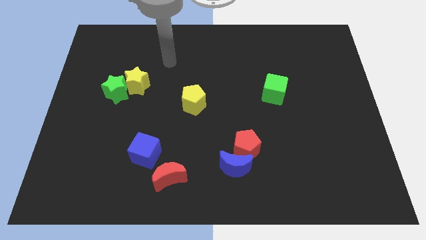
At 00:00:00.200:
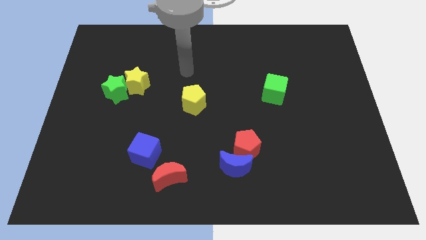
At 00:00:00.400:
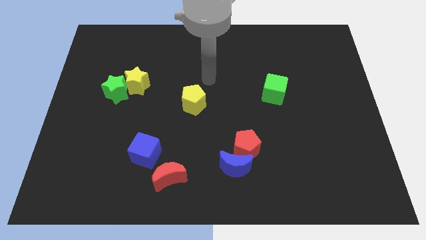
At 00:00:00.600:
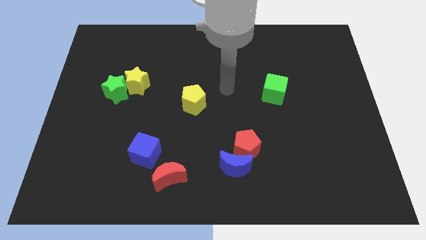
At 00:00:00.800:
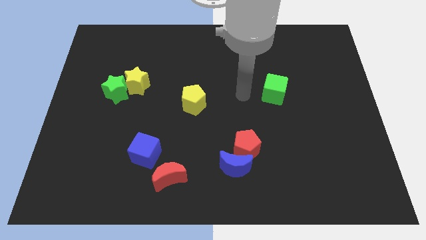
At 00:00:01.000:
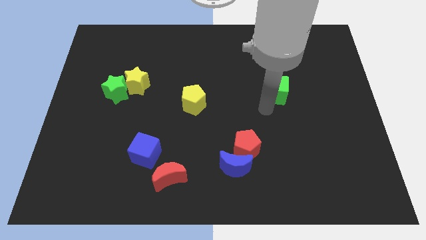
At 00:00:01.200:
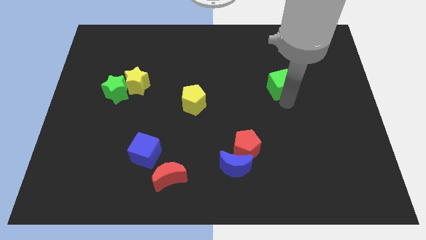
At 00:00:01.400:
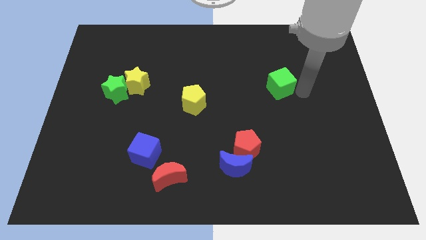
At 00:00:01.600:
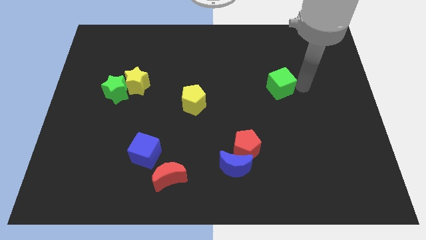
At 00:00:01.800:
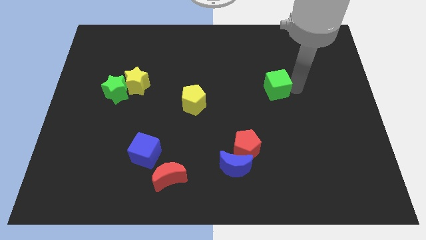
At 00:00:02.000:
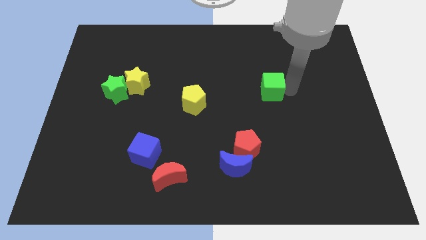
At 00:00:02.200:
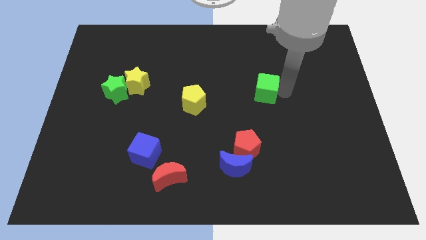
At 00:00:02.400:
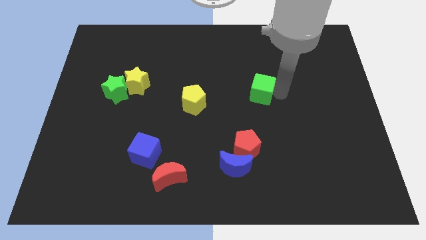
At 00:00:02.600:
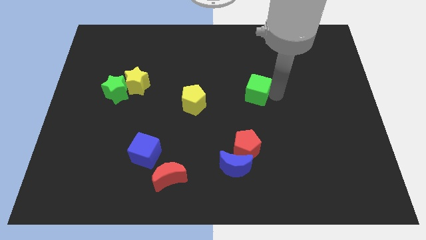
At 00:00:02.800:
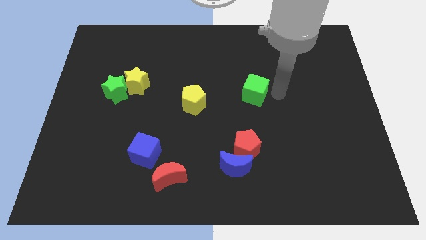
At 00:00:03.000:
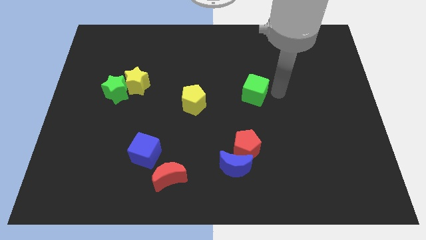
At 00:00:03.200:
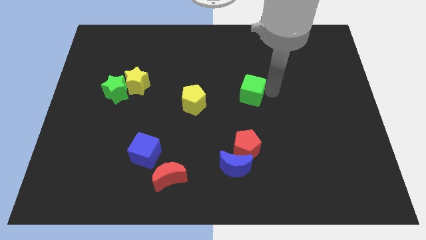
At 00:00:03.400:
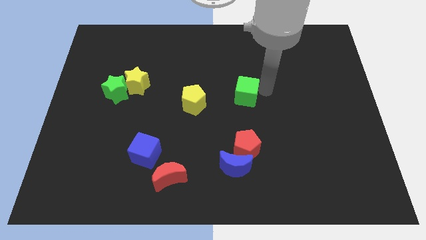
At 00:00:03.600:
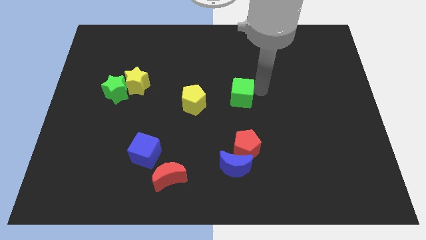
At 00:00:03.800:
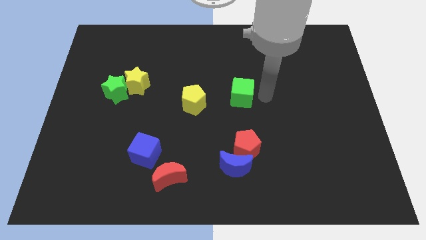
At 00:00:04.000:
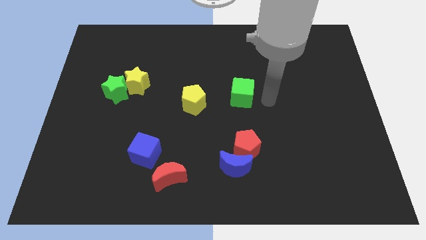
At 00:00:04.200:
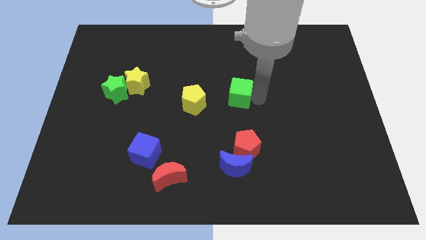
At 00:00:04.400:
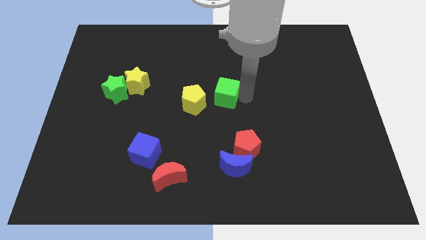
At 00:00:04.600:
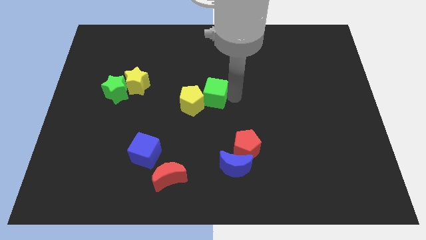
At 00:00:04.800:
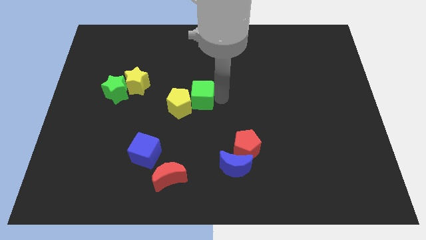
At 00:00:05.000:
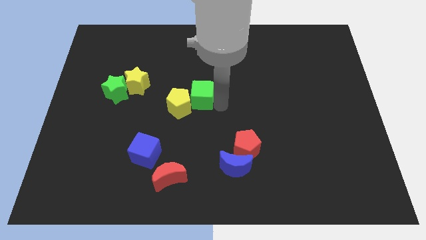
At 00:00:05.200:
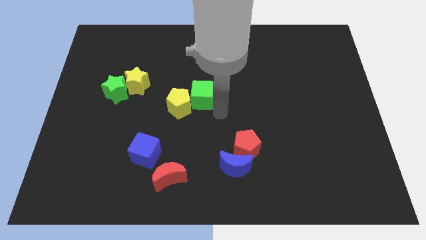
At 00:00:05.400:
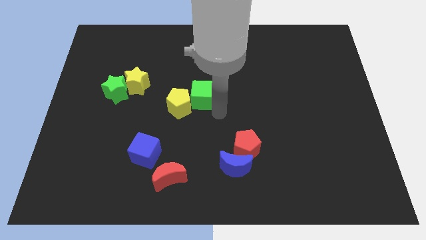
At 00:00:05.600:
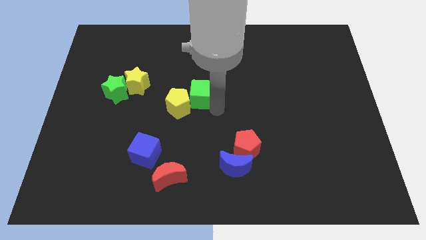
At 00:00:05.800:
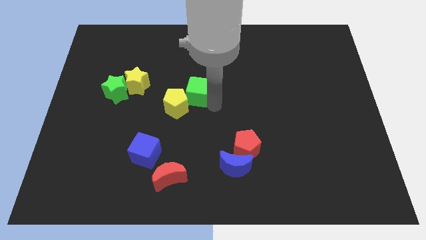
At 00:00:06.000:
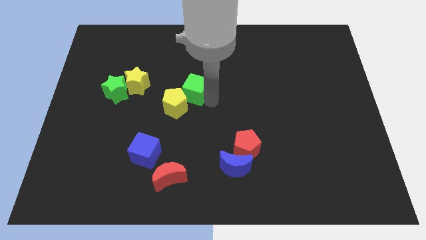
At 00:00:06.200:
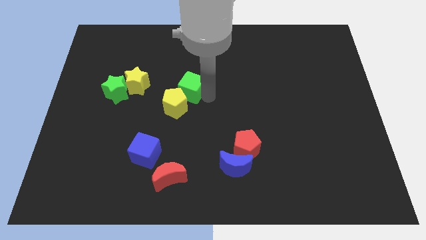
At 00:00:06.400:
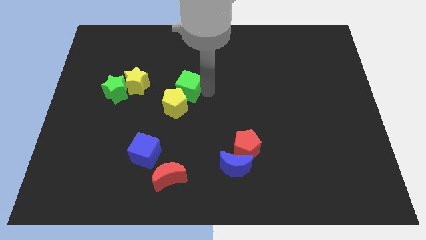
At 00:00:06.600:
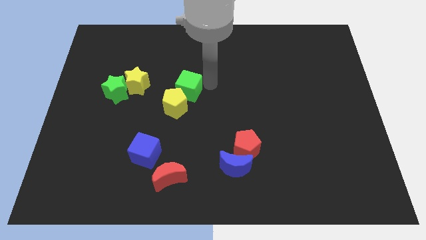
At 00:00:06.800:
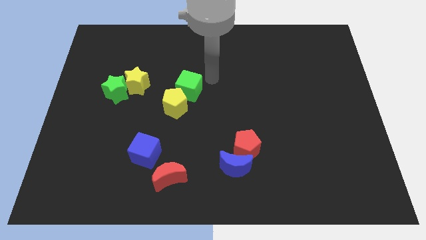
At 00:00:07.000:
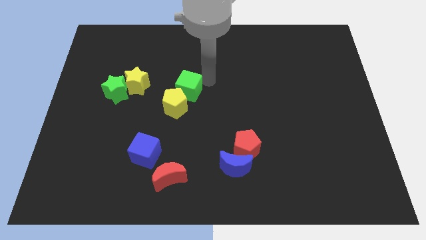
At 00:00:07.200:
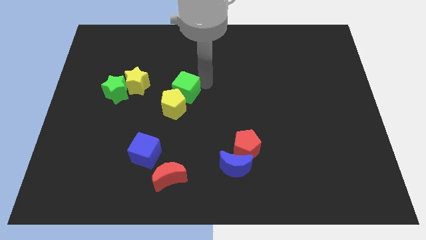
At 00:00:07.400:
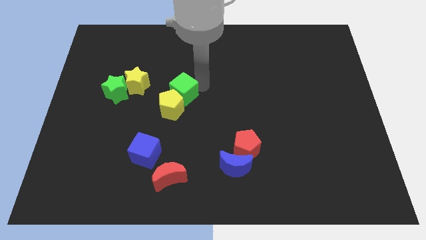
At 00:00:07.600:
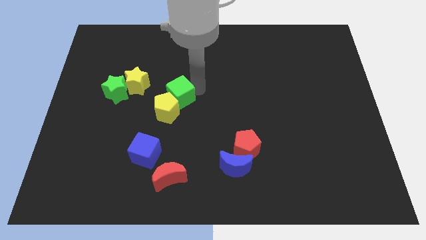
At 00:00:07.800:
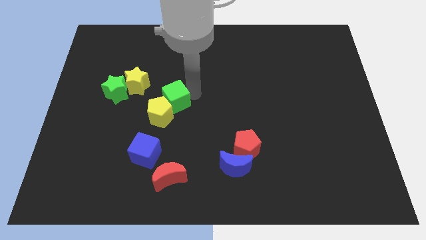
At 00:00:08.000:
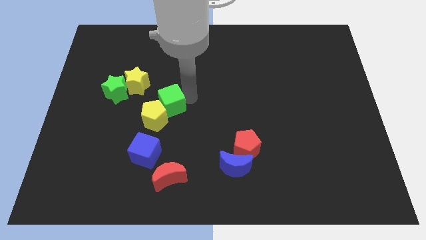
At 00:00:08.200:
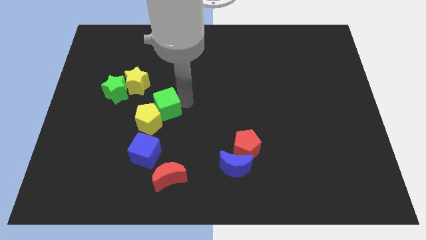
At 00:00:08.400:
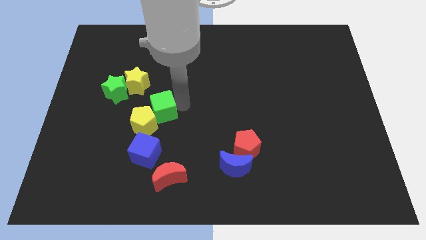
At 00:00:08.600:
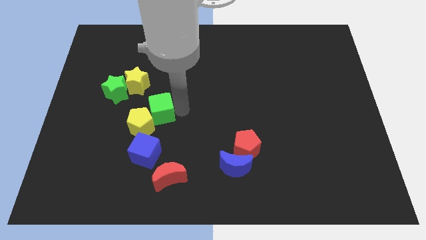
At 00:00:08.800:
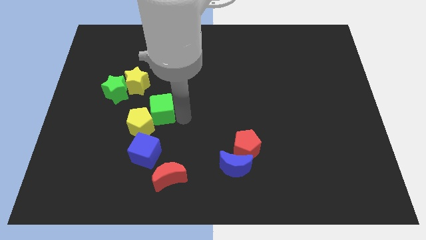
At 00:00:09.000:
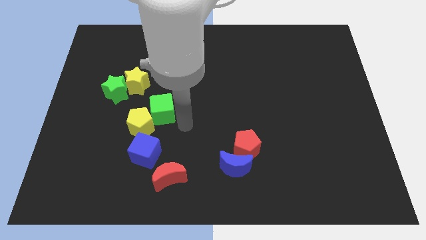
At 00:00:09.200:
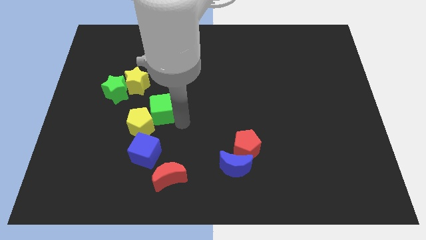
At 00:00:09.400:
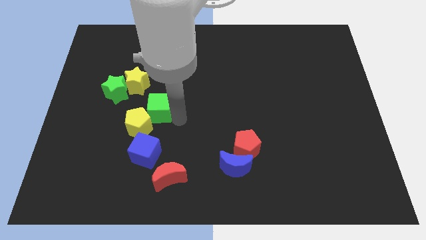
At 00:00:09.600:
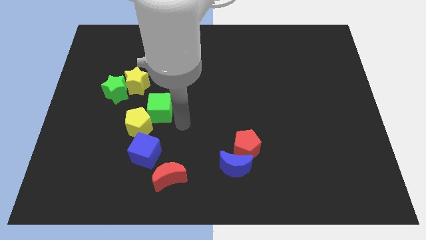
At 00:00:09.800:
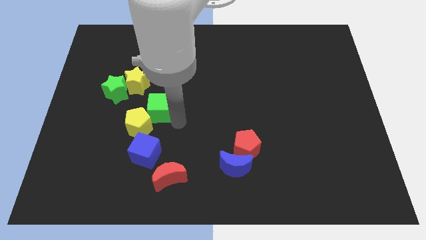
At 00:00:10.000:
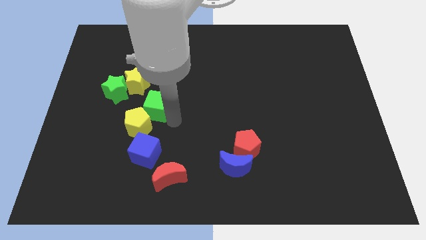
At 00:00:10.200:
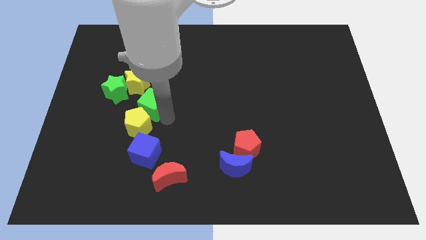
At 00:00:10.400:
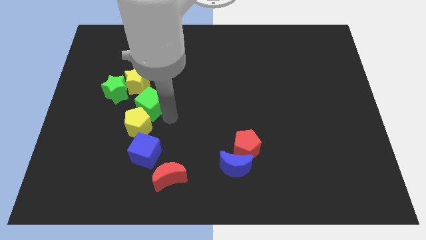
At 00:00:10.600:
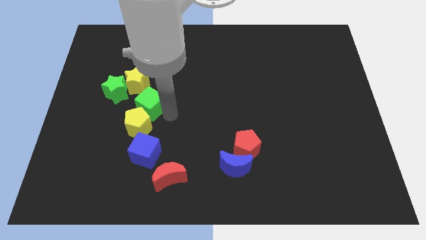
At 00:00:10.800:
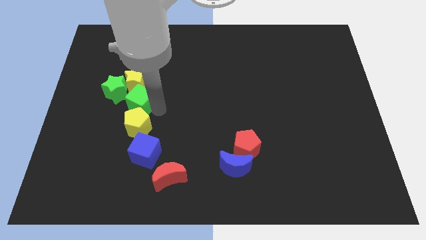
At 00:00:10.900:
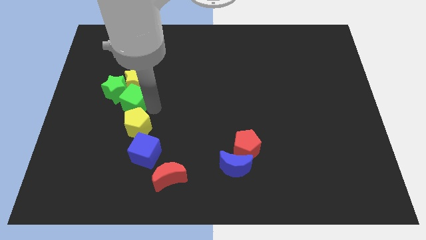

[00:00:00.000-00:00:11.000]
push the green cube to the green star

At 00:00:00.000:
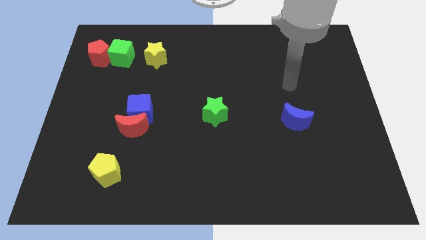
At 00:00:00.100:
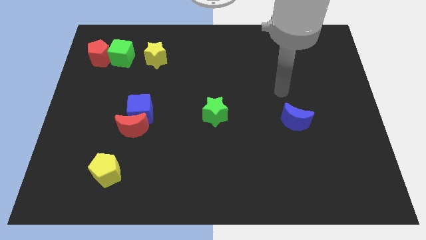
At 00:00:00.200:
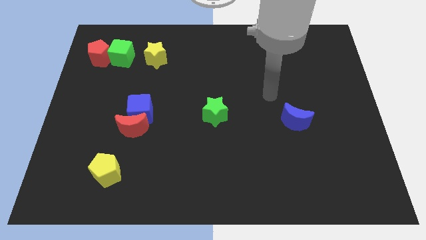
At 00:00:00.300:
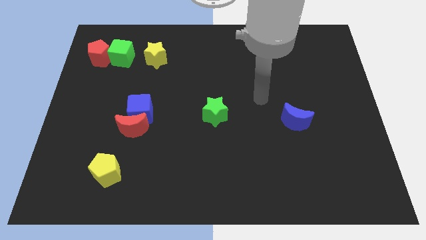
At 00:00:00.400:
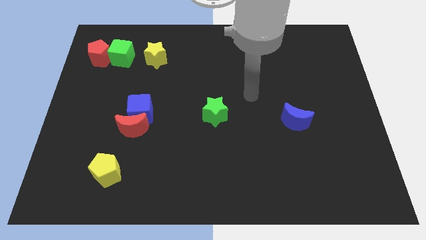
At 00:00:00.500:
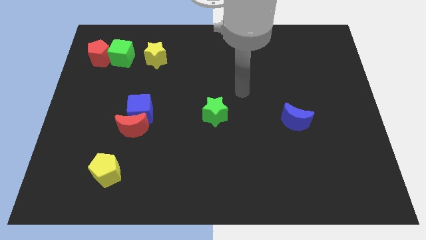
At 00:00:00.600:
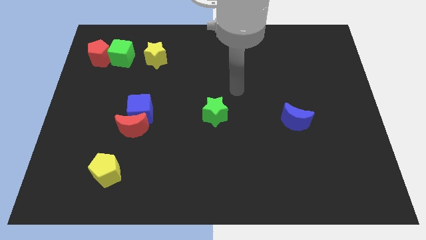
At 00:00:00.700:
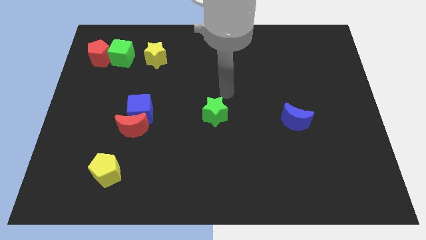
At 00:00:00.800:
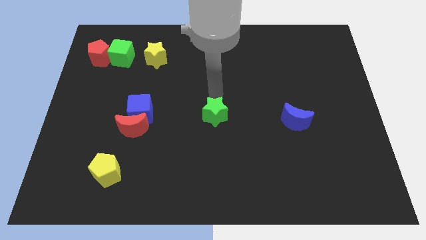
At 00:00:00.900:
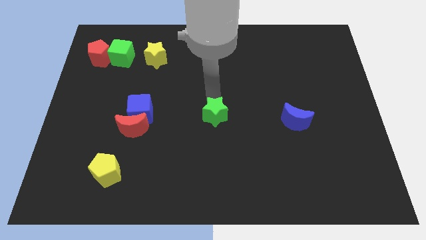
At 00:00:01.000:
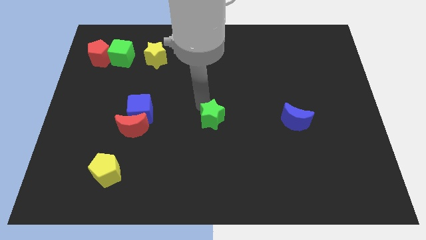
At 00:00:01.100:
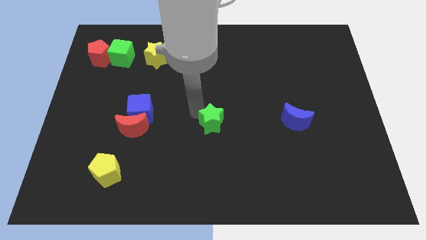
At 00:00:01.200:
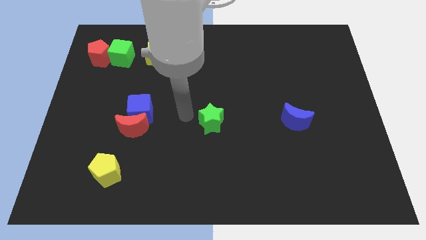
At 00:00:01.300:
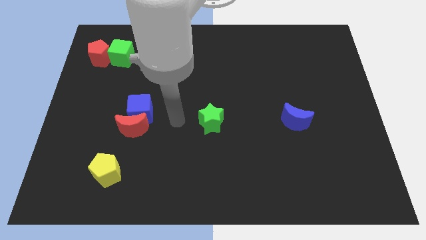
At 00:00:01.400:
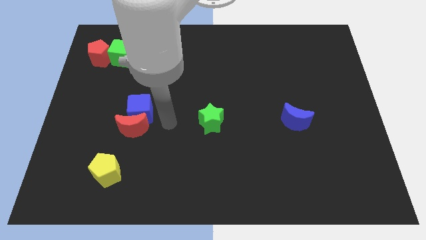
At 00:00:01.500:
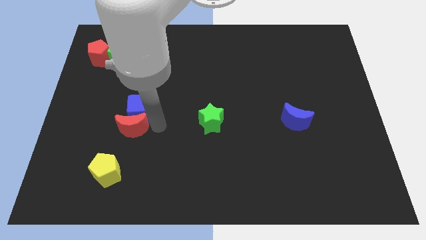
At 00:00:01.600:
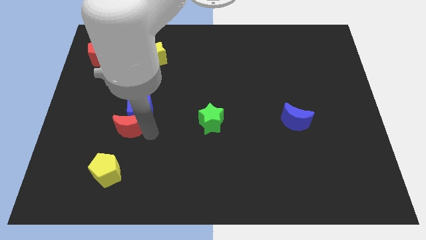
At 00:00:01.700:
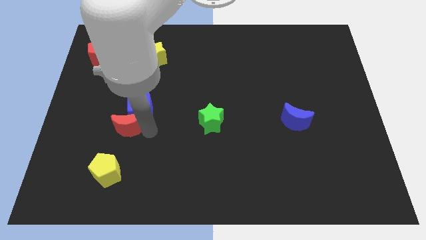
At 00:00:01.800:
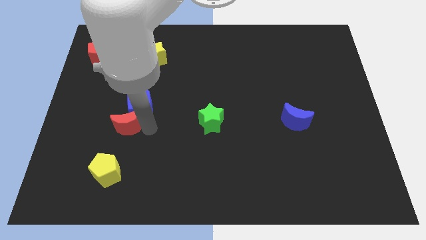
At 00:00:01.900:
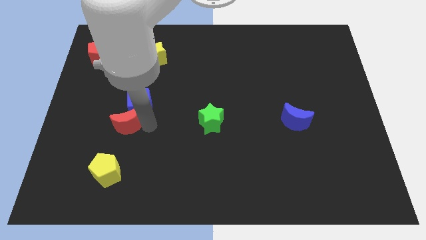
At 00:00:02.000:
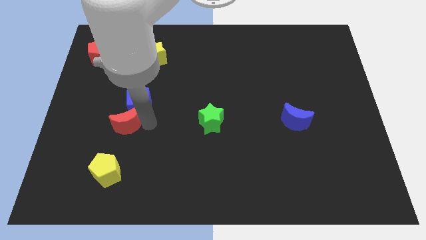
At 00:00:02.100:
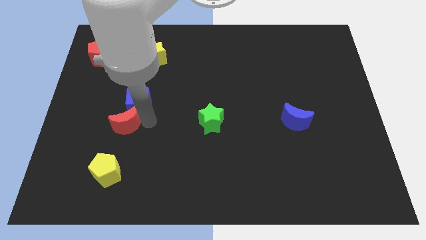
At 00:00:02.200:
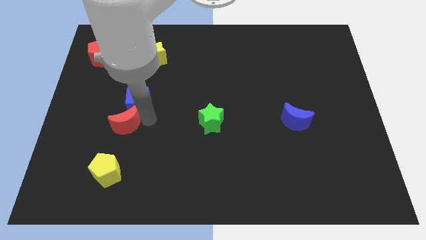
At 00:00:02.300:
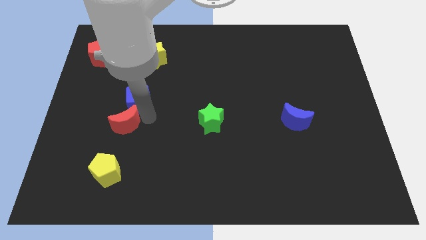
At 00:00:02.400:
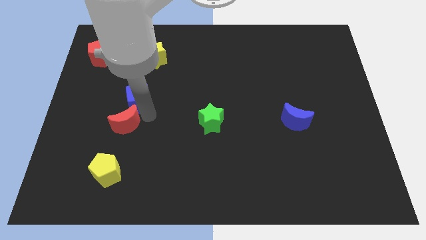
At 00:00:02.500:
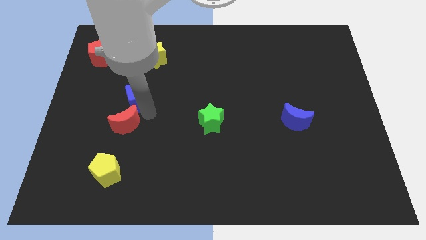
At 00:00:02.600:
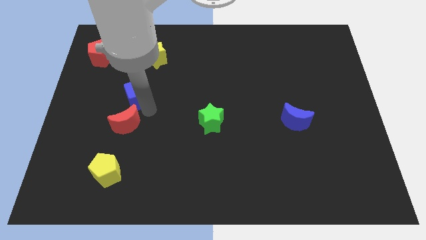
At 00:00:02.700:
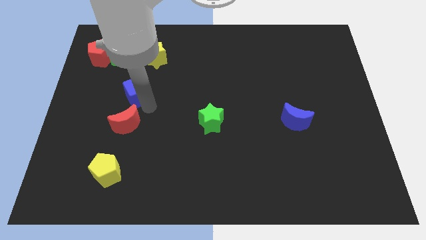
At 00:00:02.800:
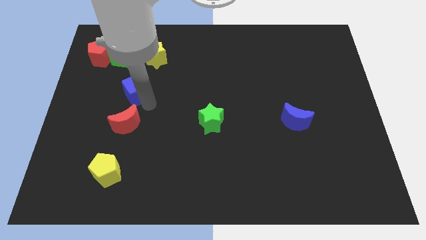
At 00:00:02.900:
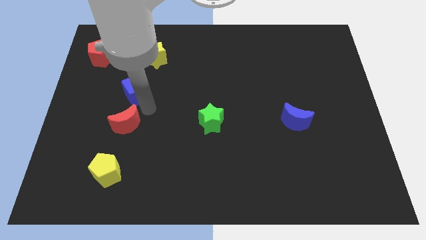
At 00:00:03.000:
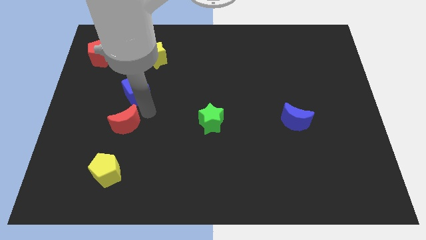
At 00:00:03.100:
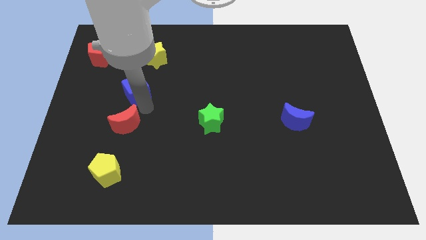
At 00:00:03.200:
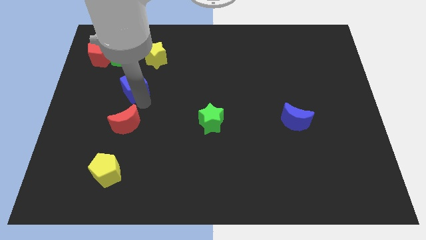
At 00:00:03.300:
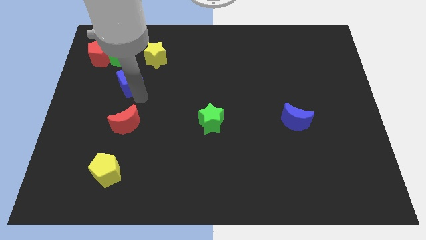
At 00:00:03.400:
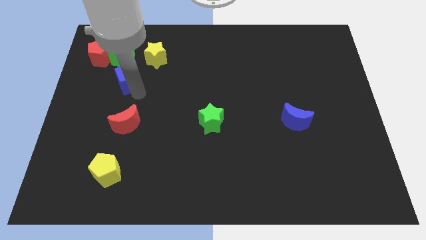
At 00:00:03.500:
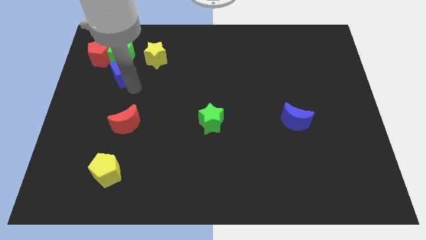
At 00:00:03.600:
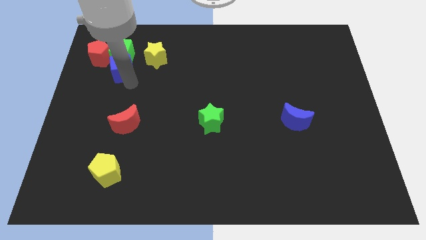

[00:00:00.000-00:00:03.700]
push the blue cube to the green cube
